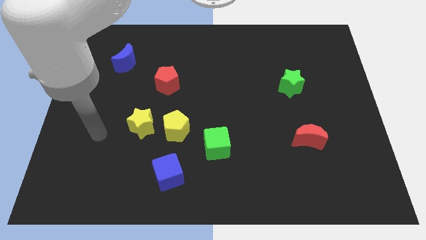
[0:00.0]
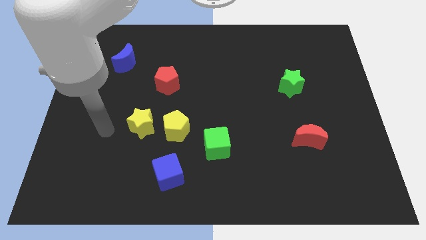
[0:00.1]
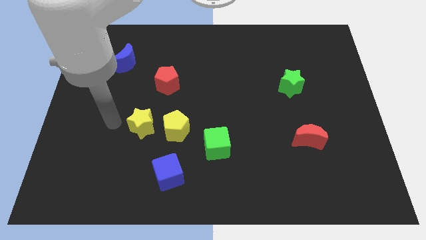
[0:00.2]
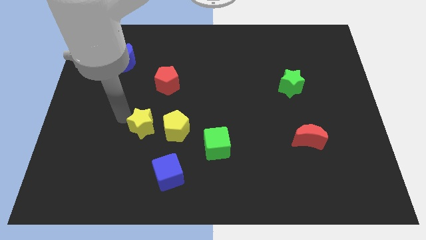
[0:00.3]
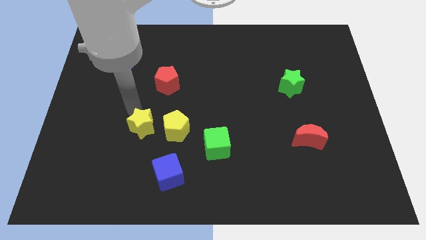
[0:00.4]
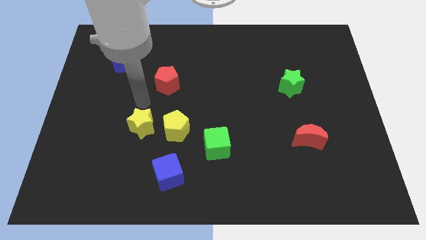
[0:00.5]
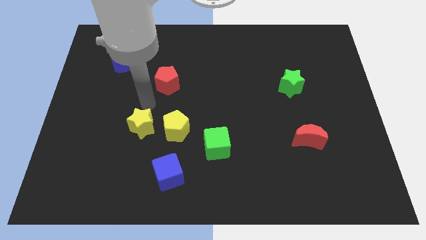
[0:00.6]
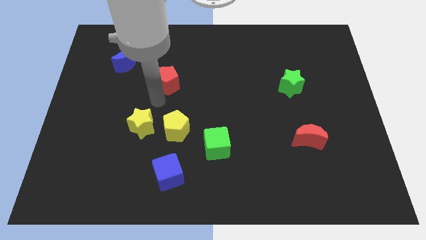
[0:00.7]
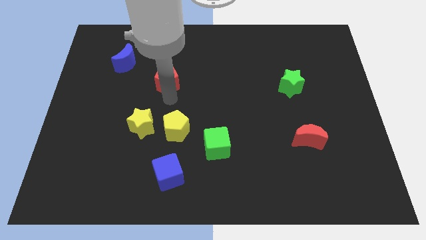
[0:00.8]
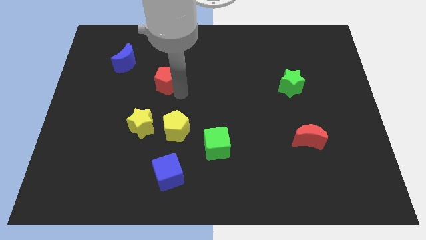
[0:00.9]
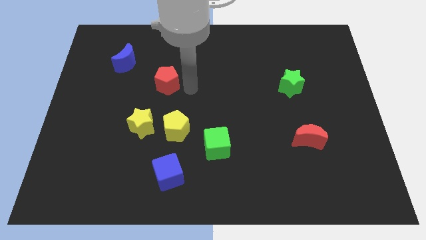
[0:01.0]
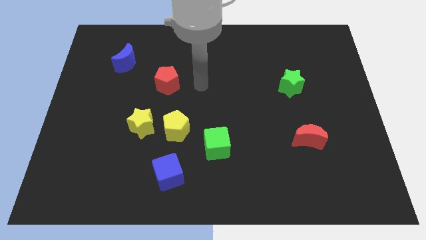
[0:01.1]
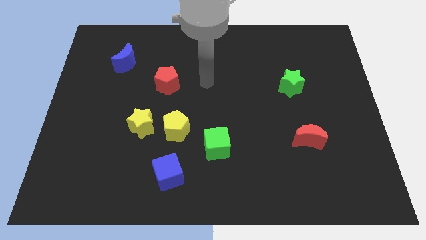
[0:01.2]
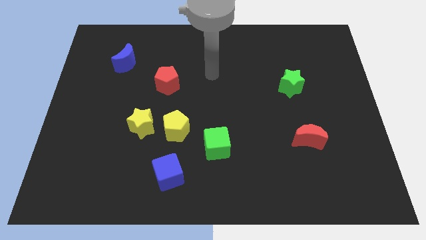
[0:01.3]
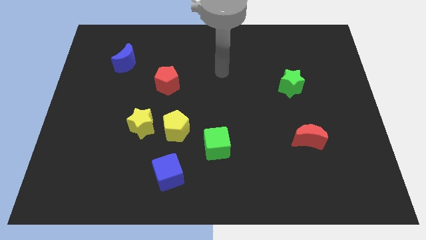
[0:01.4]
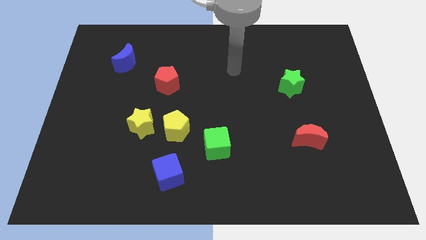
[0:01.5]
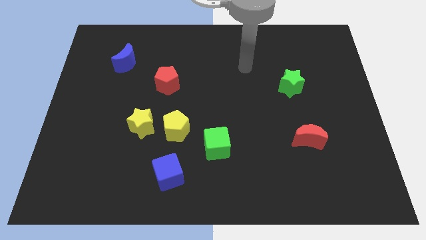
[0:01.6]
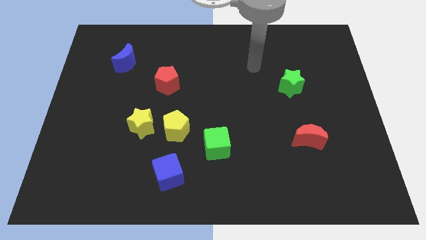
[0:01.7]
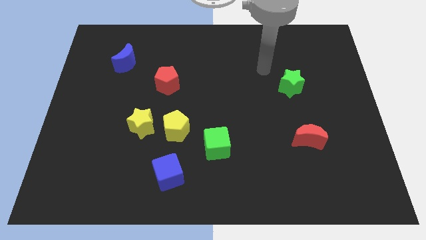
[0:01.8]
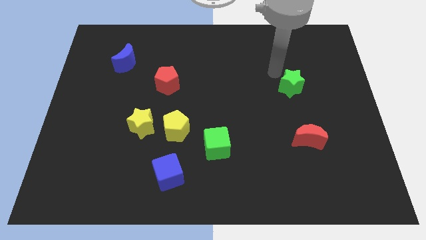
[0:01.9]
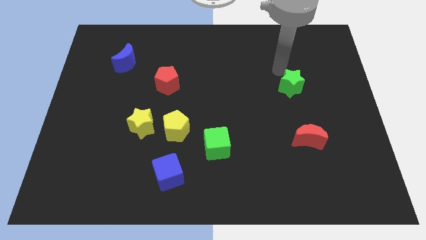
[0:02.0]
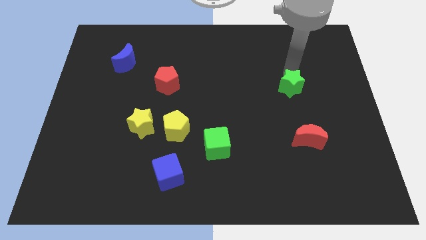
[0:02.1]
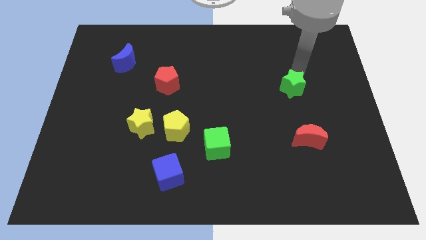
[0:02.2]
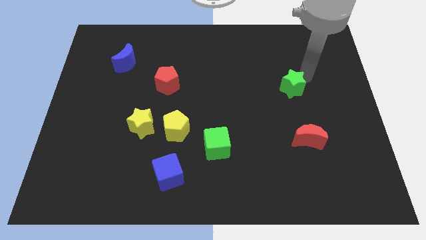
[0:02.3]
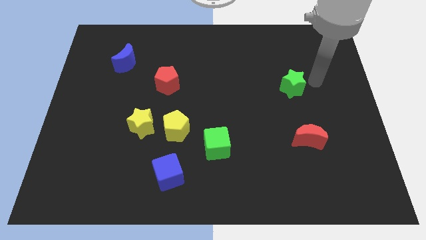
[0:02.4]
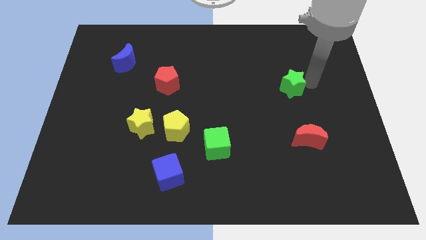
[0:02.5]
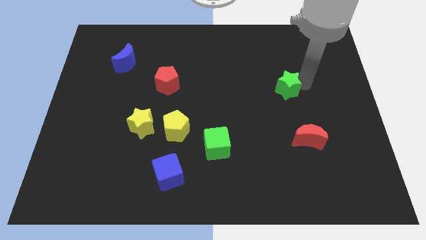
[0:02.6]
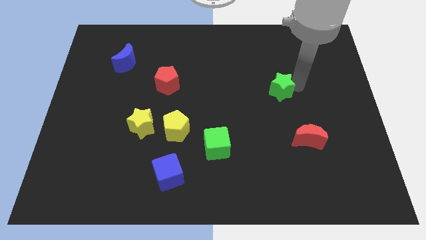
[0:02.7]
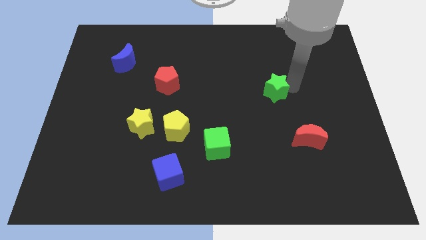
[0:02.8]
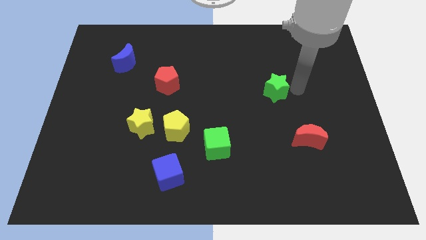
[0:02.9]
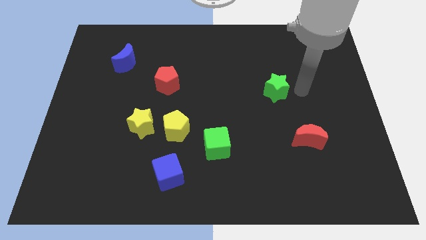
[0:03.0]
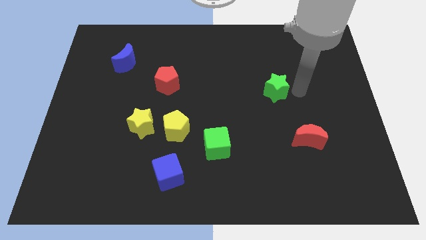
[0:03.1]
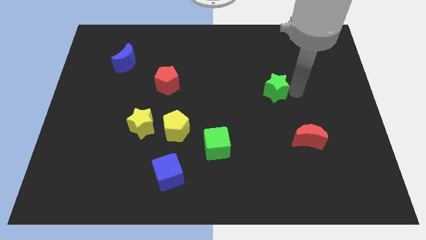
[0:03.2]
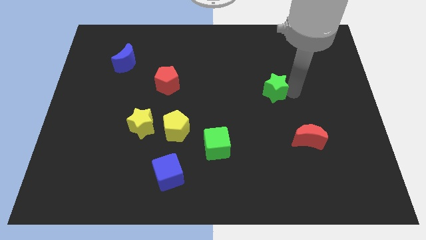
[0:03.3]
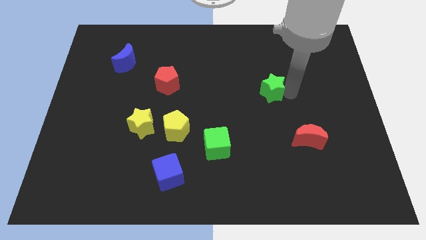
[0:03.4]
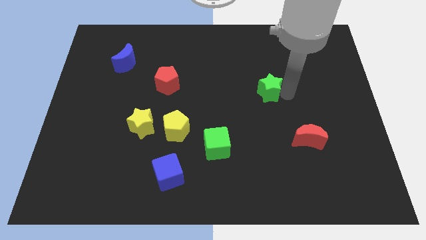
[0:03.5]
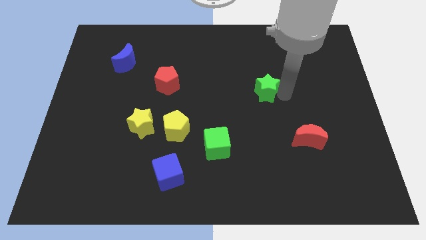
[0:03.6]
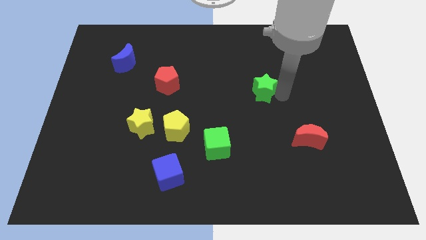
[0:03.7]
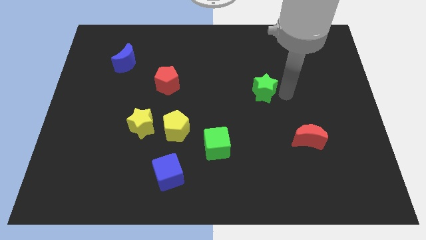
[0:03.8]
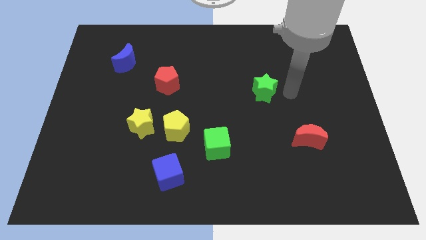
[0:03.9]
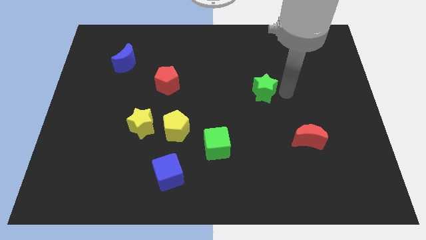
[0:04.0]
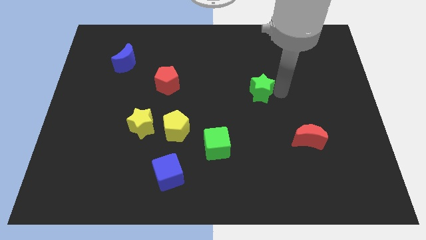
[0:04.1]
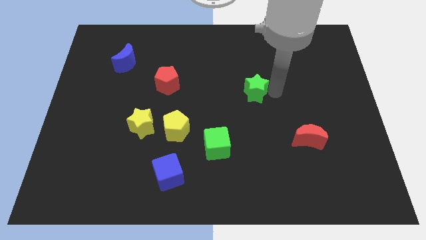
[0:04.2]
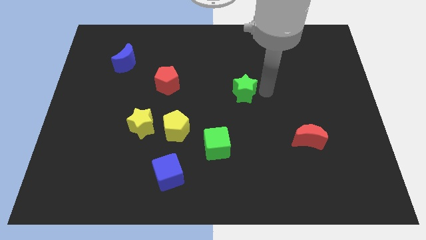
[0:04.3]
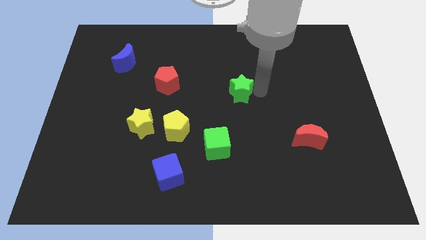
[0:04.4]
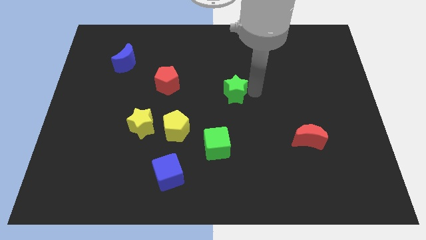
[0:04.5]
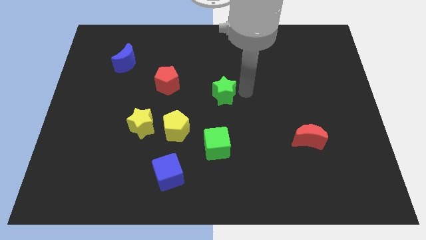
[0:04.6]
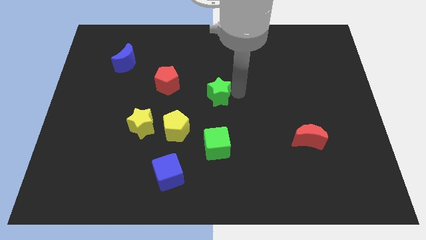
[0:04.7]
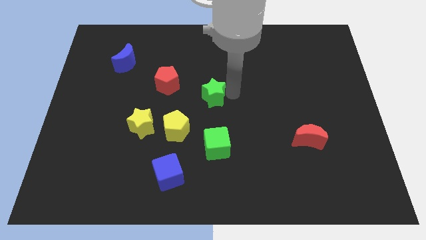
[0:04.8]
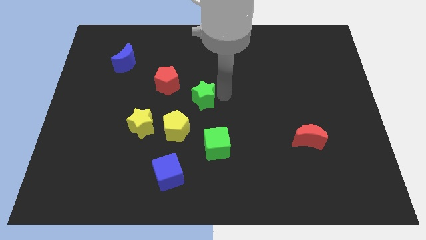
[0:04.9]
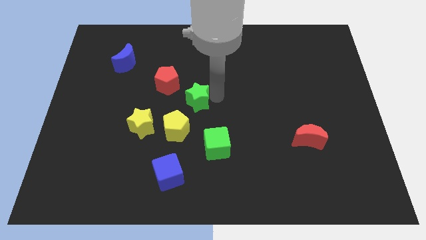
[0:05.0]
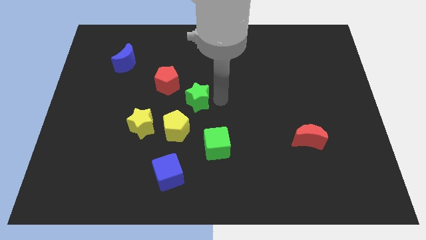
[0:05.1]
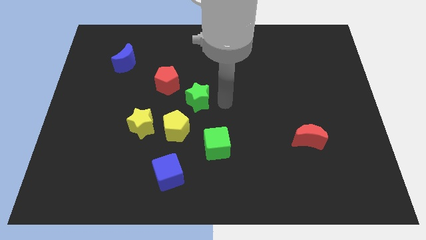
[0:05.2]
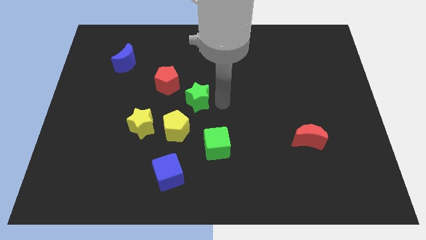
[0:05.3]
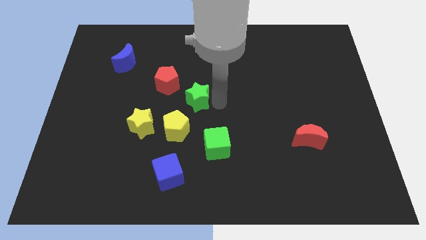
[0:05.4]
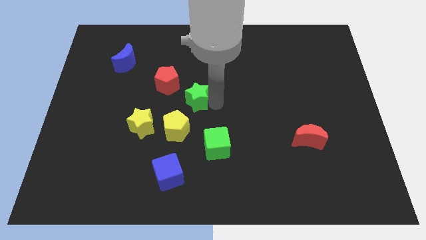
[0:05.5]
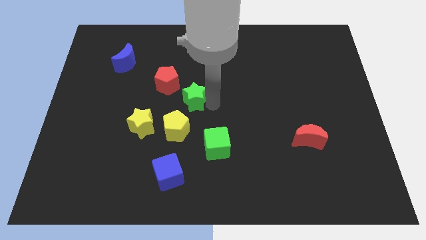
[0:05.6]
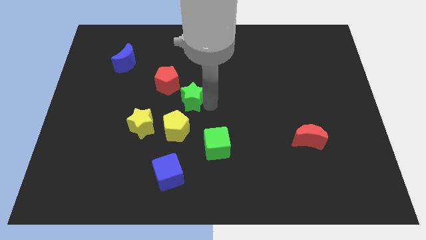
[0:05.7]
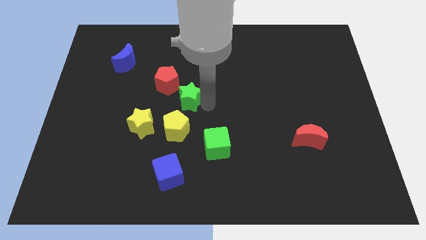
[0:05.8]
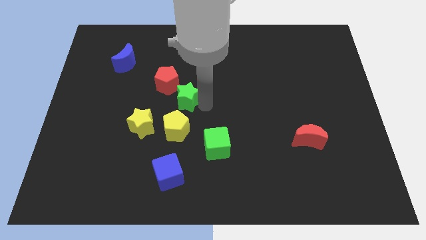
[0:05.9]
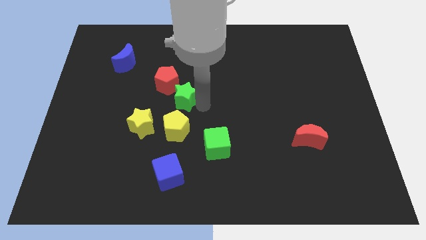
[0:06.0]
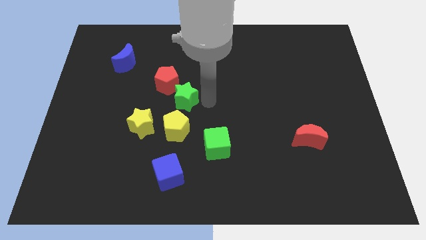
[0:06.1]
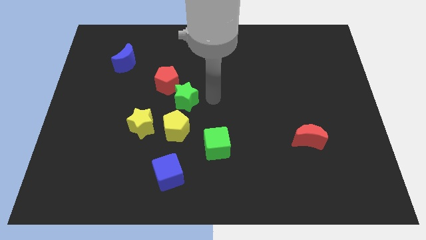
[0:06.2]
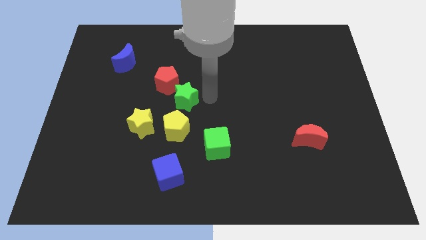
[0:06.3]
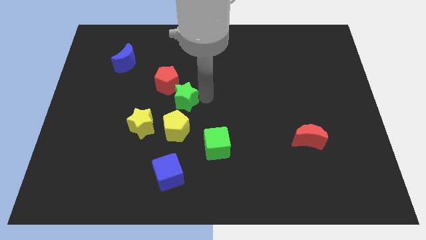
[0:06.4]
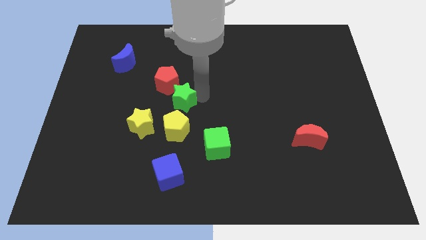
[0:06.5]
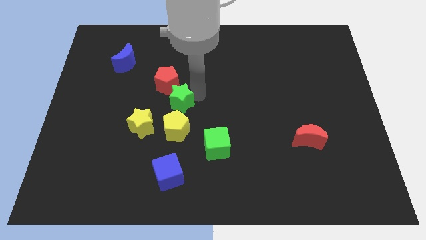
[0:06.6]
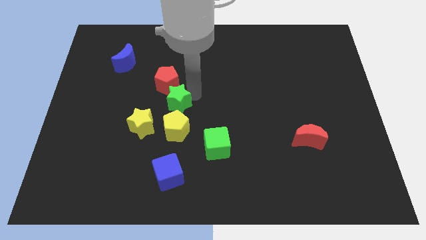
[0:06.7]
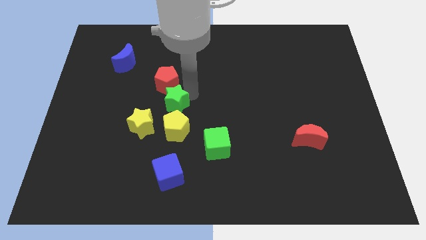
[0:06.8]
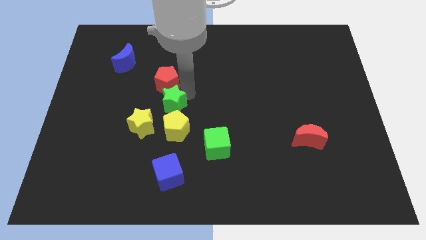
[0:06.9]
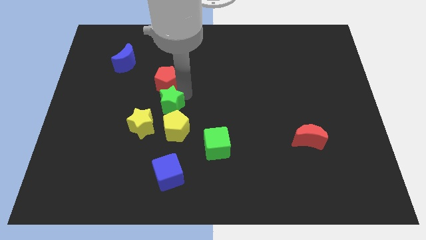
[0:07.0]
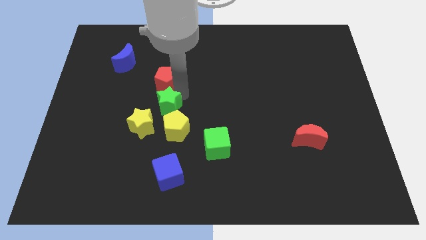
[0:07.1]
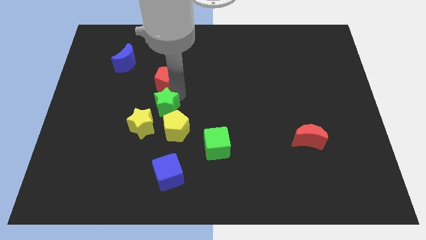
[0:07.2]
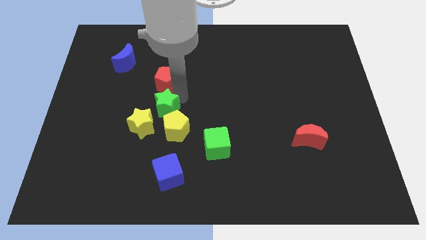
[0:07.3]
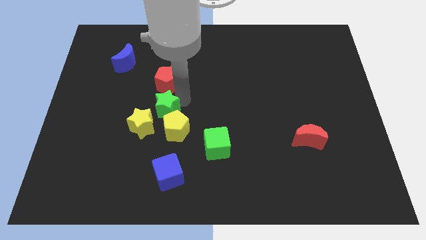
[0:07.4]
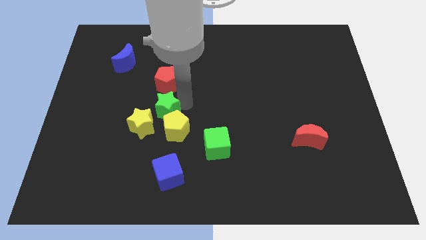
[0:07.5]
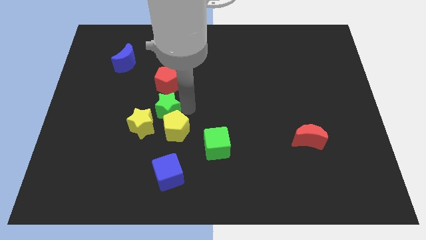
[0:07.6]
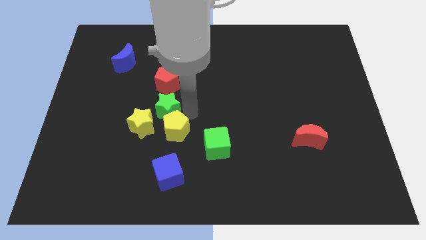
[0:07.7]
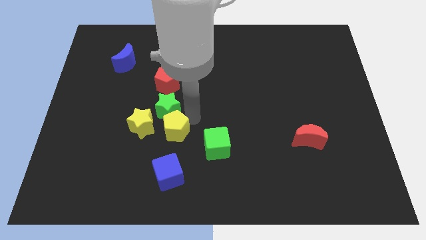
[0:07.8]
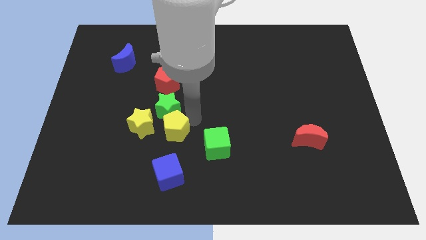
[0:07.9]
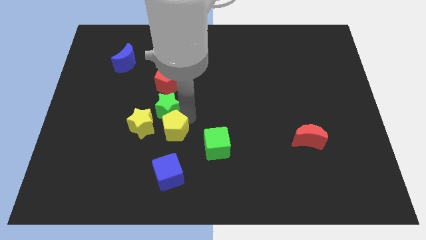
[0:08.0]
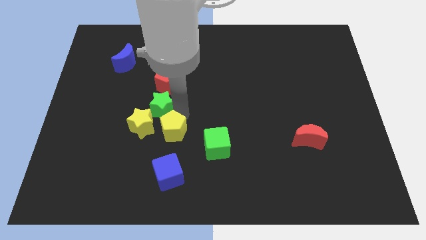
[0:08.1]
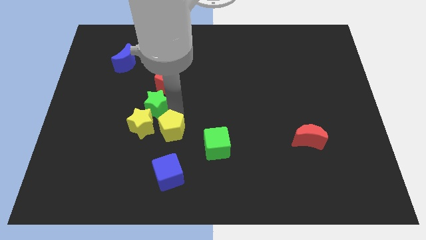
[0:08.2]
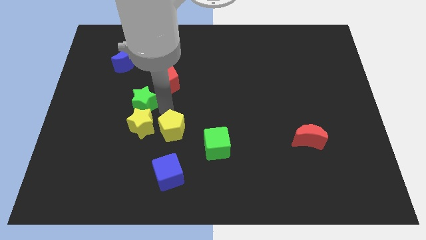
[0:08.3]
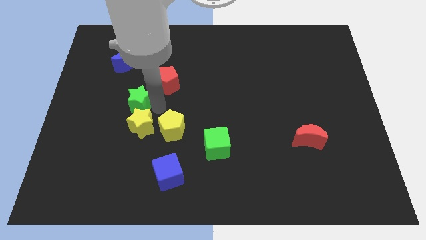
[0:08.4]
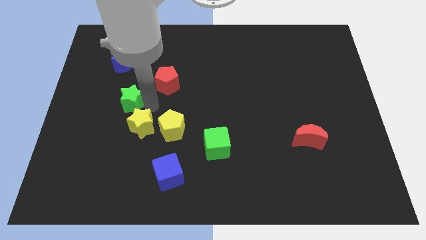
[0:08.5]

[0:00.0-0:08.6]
push the green star to the bottom side of the blue moon
